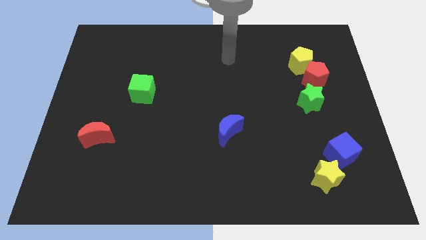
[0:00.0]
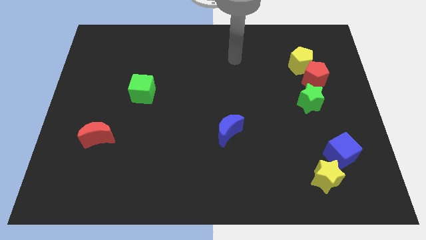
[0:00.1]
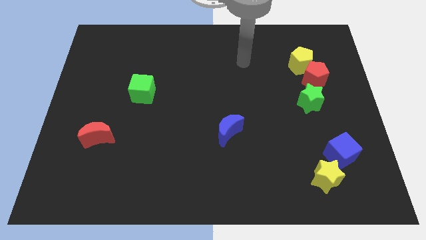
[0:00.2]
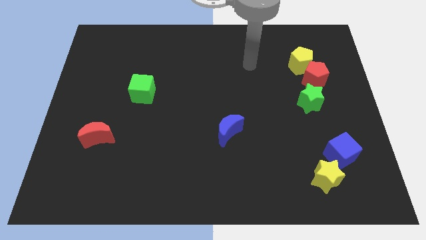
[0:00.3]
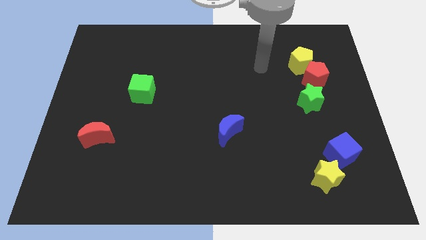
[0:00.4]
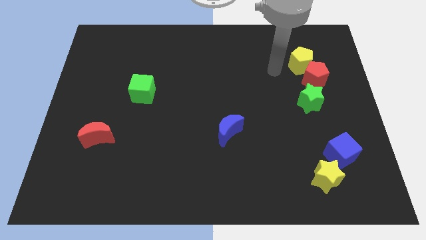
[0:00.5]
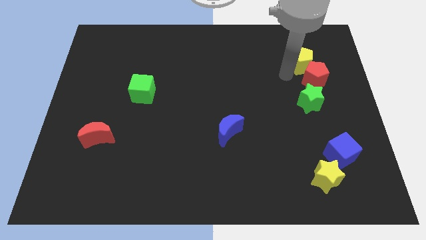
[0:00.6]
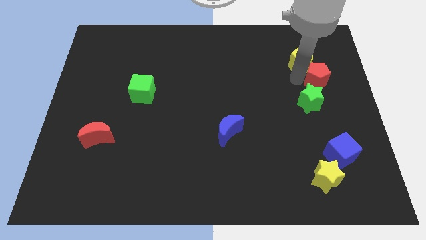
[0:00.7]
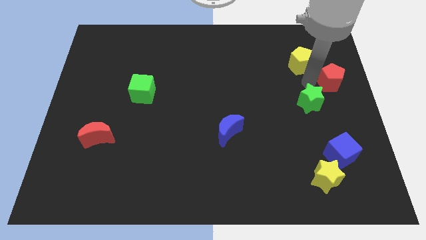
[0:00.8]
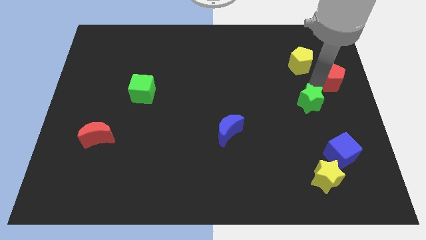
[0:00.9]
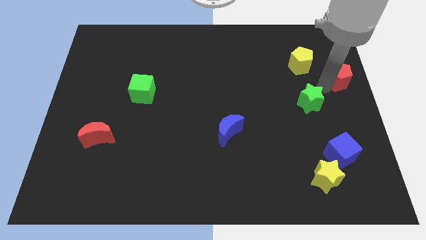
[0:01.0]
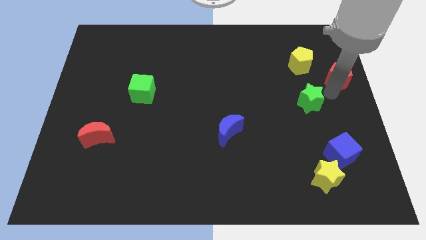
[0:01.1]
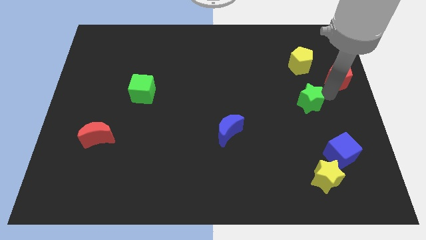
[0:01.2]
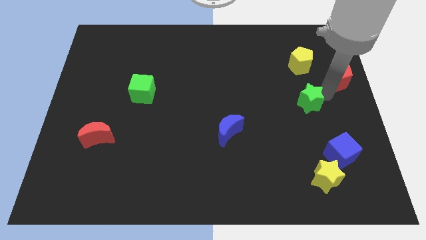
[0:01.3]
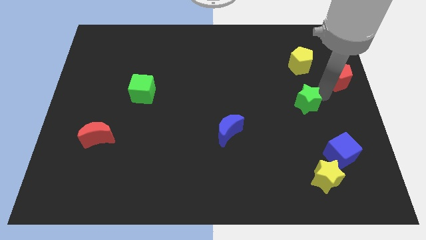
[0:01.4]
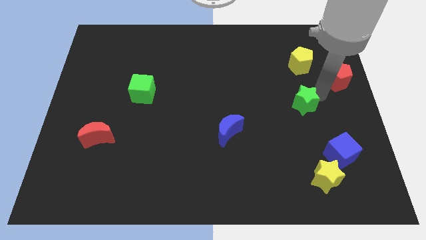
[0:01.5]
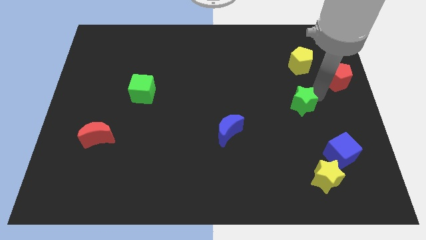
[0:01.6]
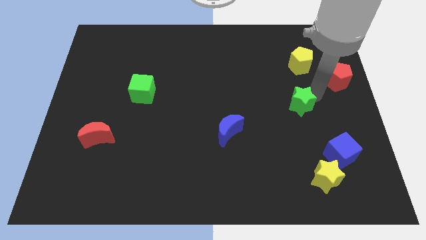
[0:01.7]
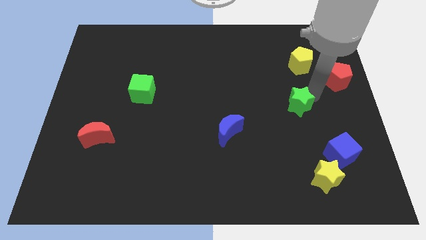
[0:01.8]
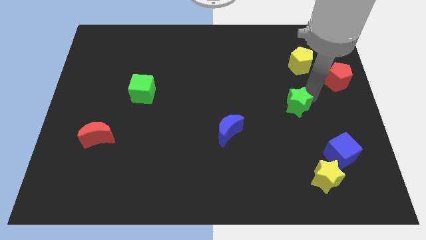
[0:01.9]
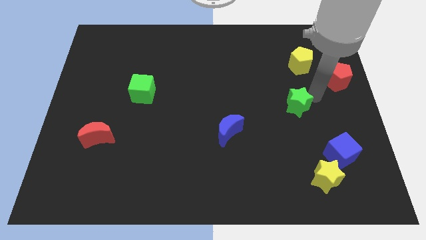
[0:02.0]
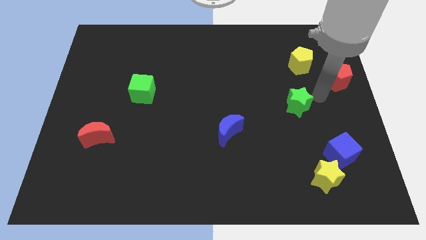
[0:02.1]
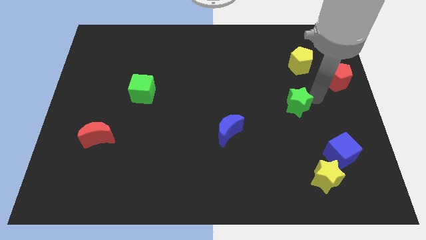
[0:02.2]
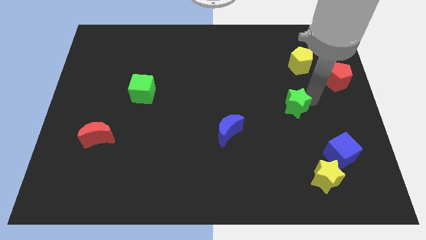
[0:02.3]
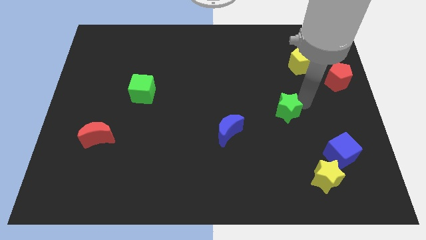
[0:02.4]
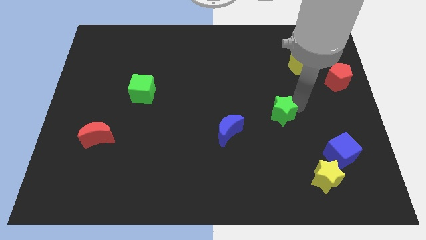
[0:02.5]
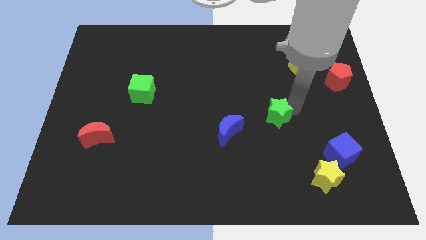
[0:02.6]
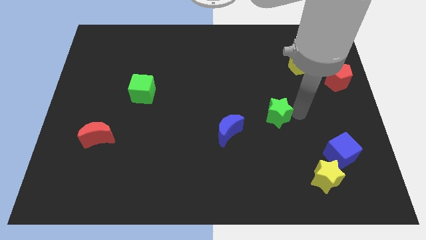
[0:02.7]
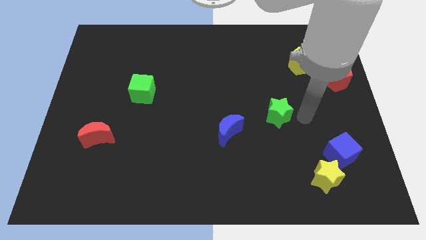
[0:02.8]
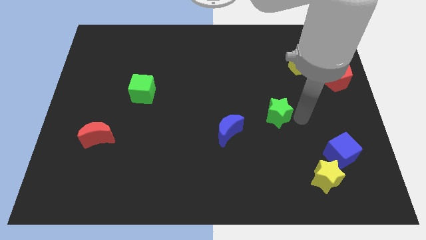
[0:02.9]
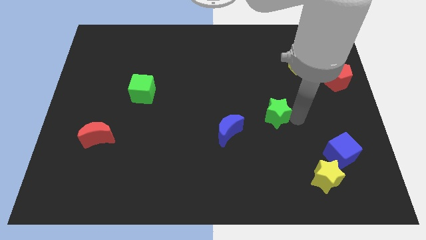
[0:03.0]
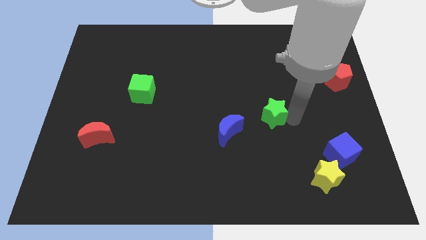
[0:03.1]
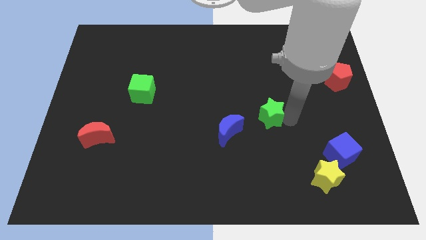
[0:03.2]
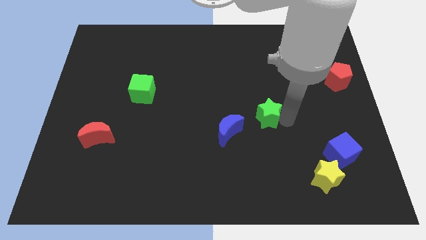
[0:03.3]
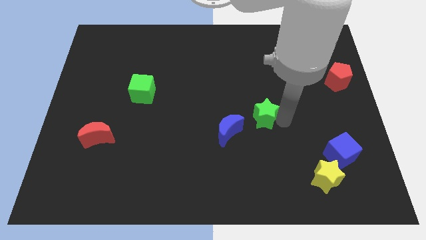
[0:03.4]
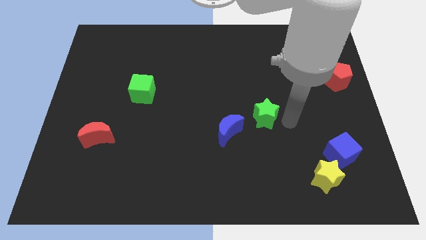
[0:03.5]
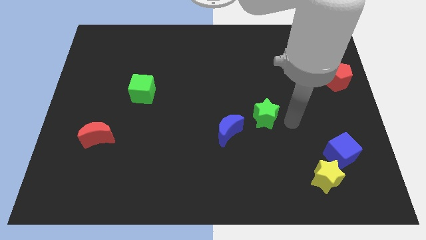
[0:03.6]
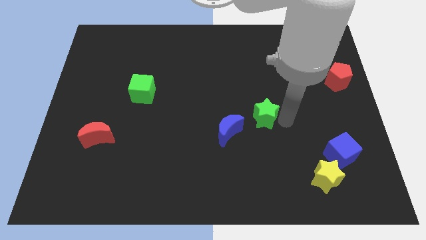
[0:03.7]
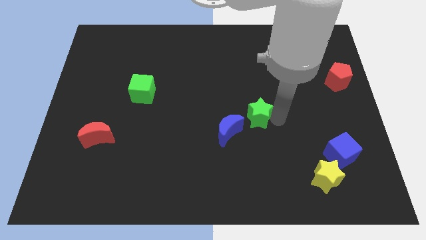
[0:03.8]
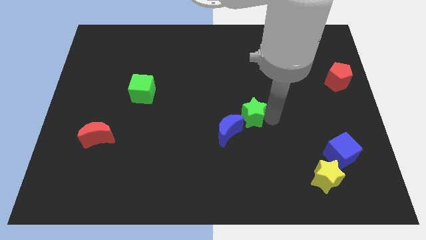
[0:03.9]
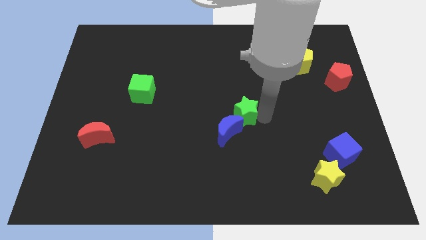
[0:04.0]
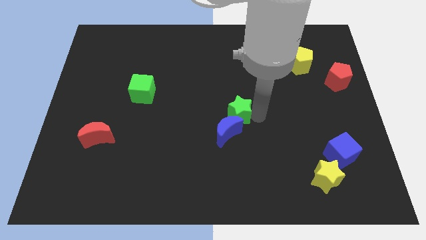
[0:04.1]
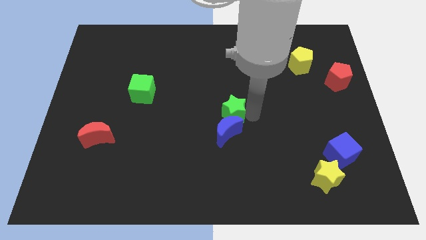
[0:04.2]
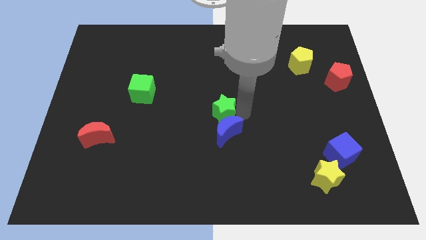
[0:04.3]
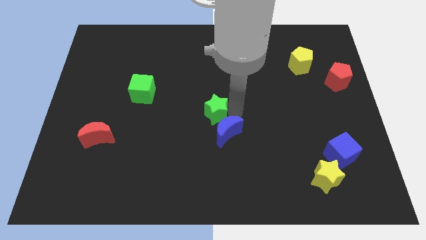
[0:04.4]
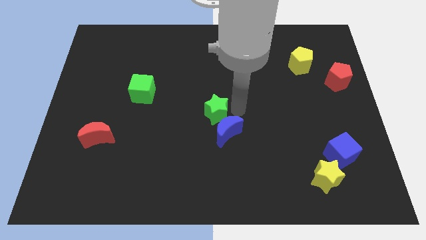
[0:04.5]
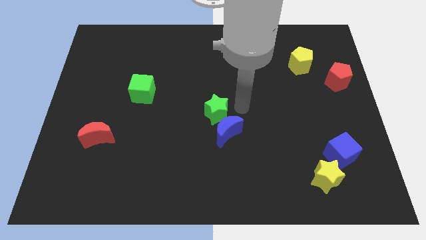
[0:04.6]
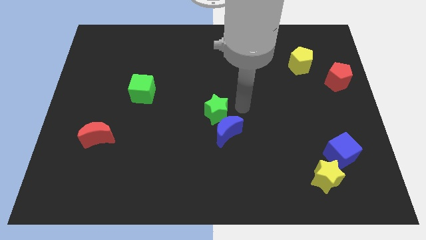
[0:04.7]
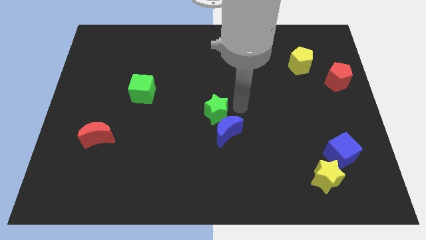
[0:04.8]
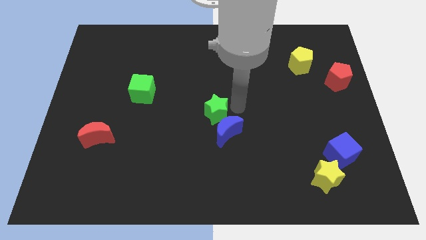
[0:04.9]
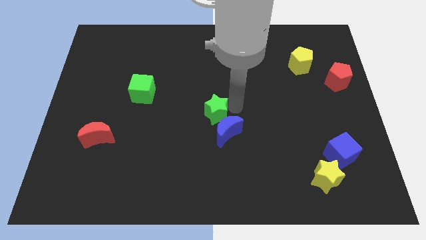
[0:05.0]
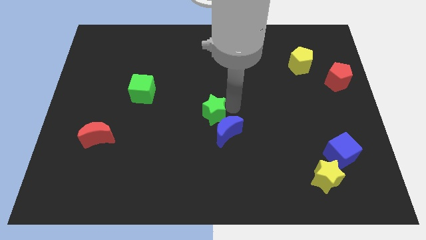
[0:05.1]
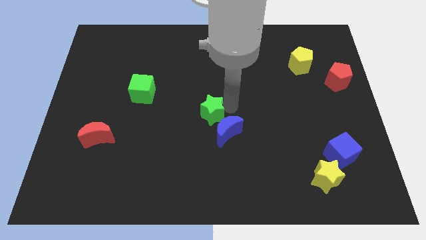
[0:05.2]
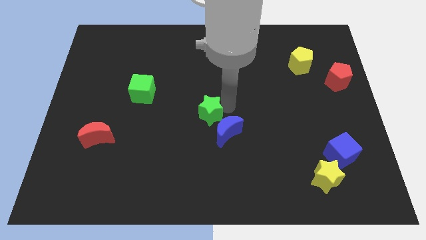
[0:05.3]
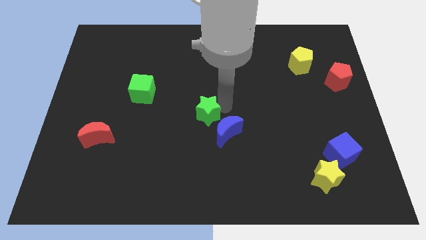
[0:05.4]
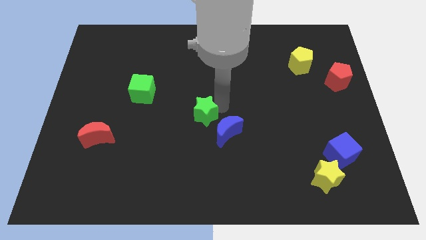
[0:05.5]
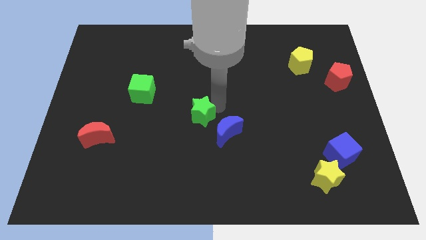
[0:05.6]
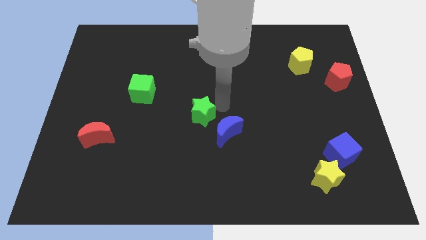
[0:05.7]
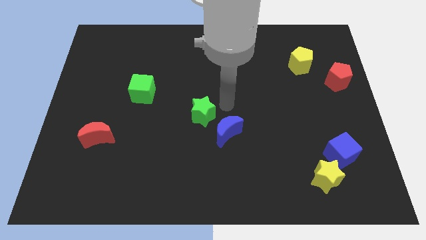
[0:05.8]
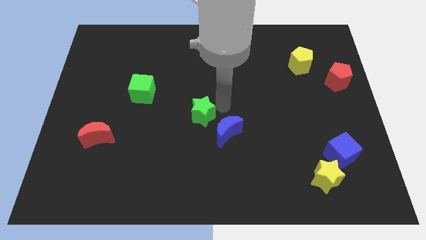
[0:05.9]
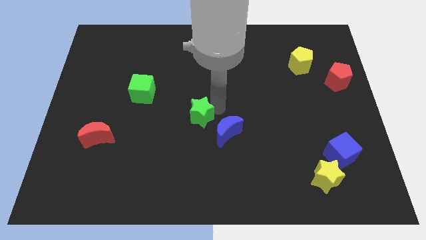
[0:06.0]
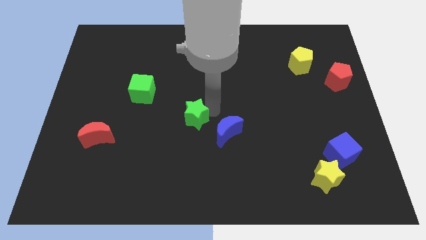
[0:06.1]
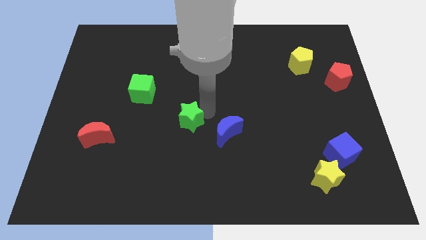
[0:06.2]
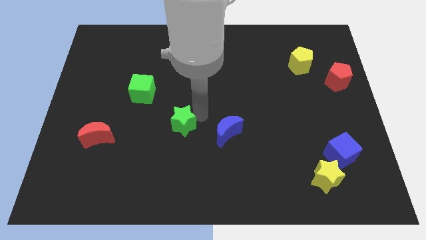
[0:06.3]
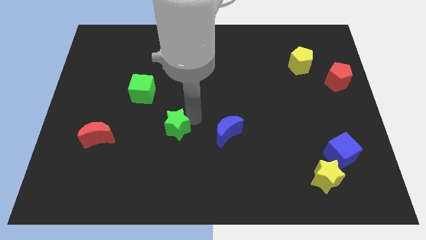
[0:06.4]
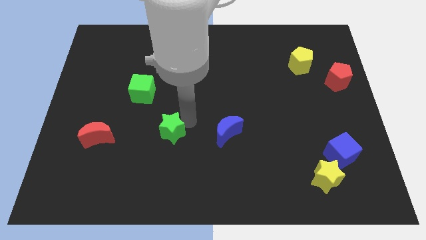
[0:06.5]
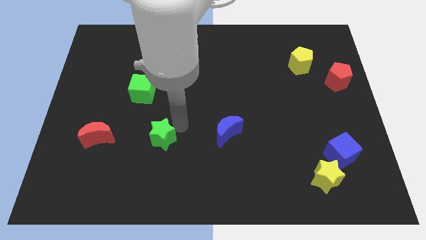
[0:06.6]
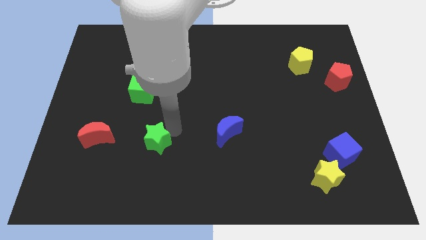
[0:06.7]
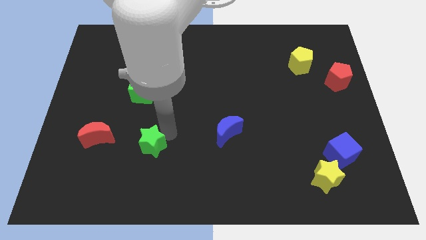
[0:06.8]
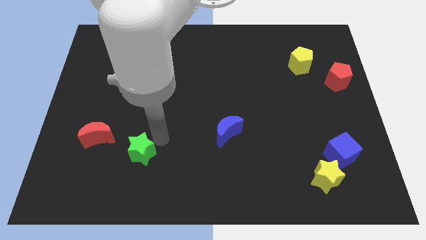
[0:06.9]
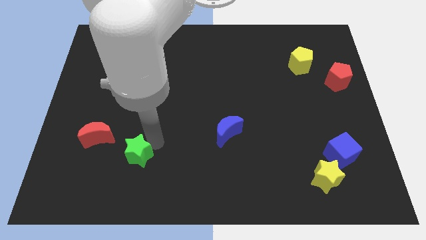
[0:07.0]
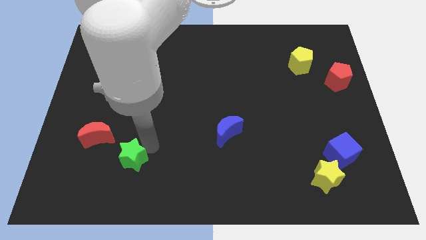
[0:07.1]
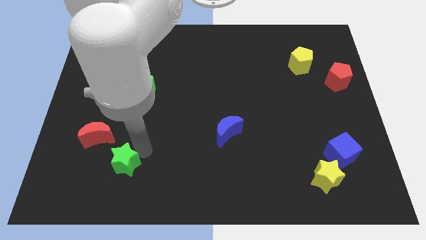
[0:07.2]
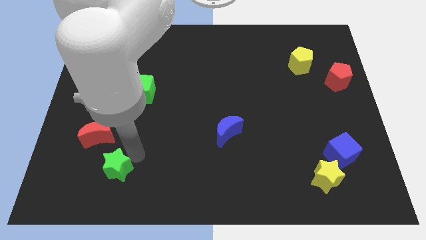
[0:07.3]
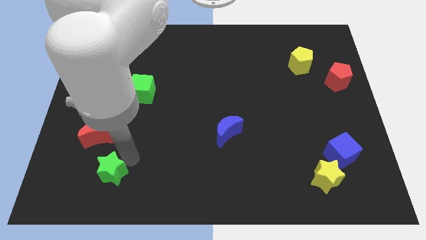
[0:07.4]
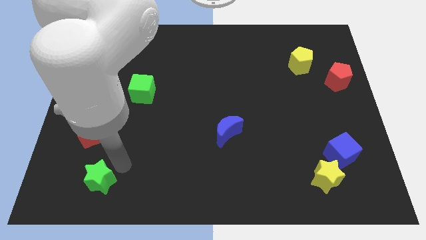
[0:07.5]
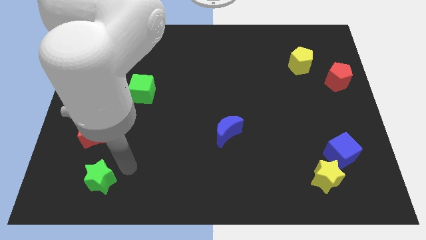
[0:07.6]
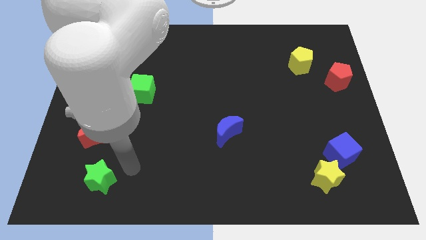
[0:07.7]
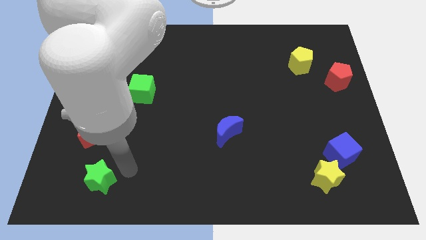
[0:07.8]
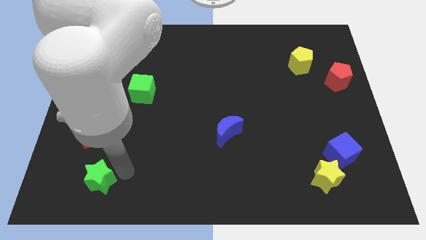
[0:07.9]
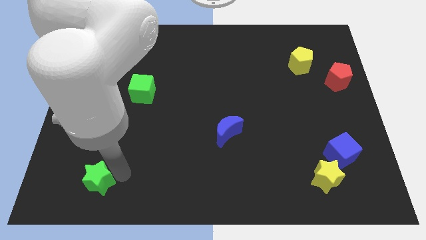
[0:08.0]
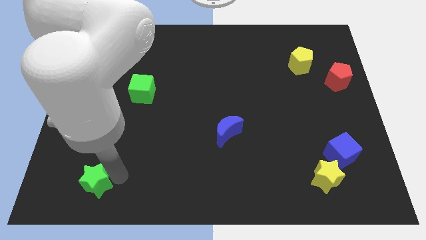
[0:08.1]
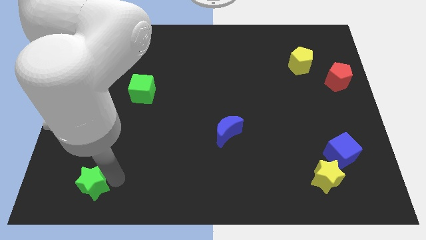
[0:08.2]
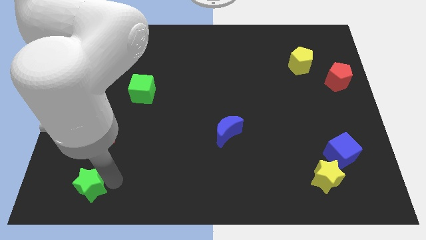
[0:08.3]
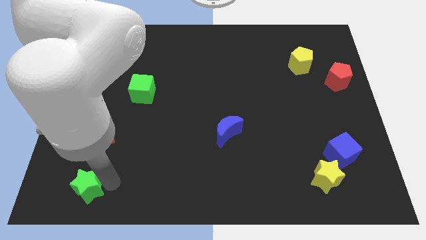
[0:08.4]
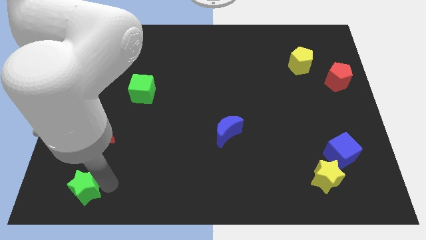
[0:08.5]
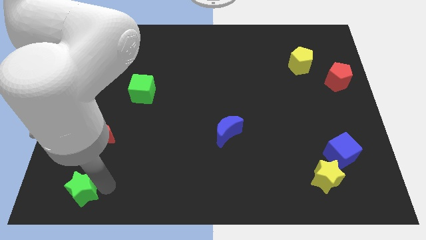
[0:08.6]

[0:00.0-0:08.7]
put the green star to the bottom left corner
